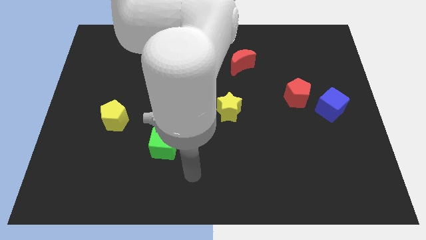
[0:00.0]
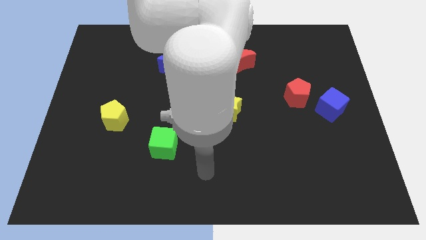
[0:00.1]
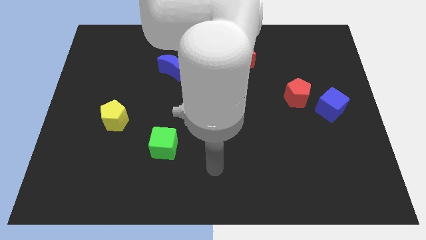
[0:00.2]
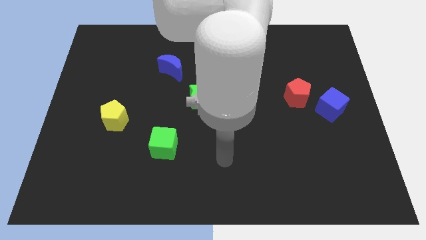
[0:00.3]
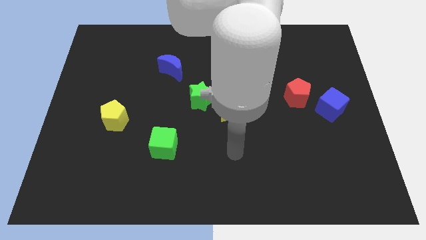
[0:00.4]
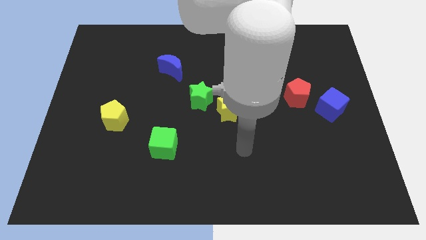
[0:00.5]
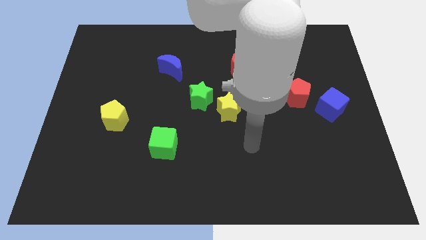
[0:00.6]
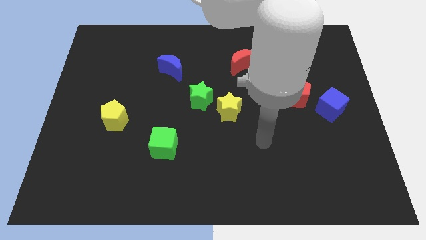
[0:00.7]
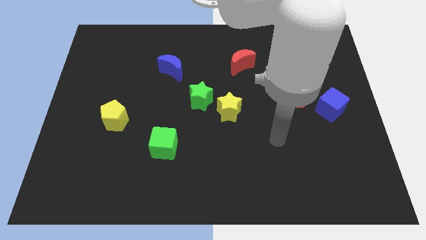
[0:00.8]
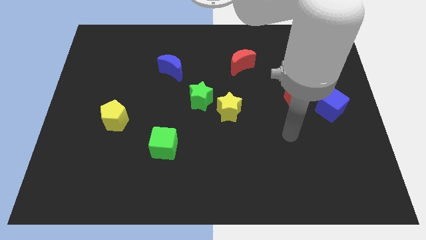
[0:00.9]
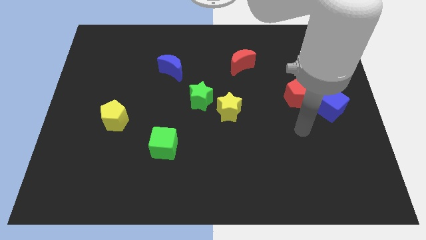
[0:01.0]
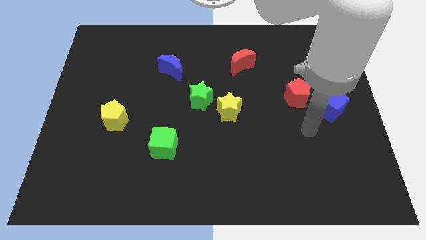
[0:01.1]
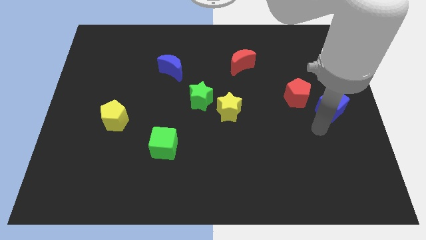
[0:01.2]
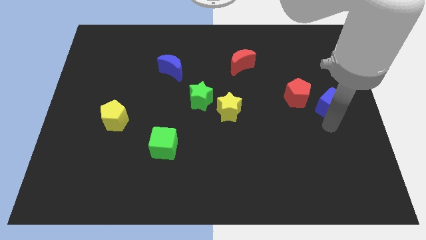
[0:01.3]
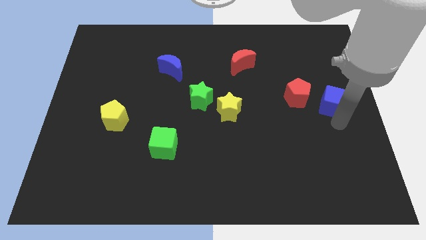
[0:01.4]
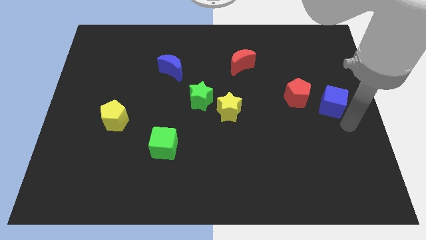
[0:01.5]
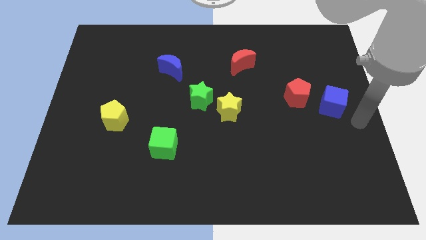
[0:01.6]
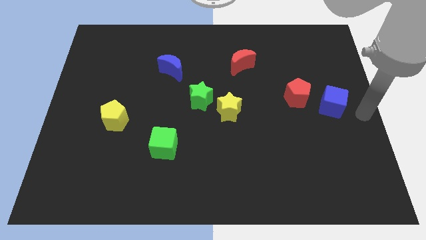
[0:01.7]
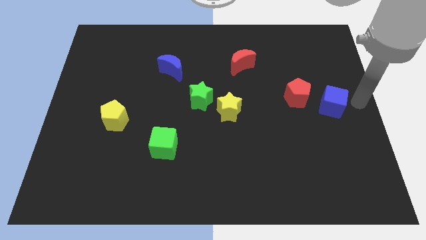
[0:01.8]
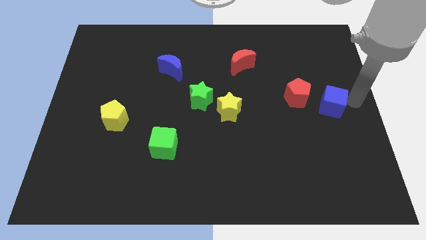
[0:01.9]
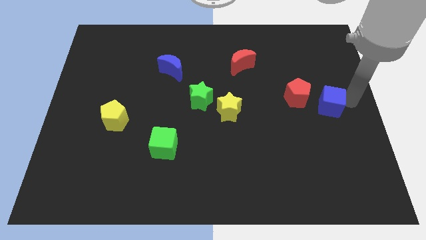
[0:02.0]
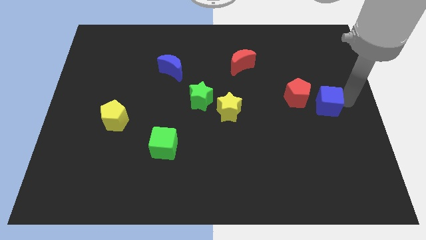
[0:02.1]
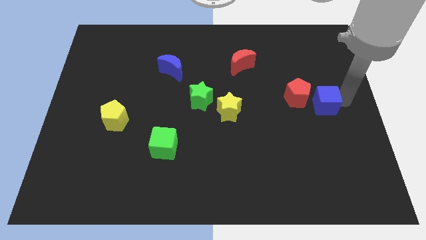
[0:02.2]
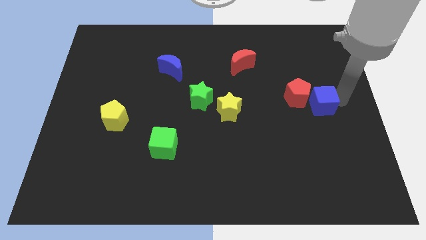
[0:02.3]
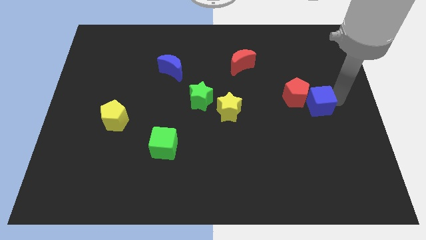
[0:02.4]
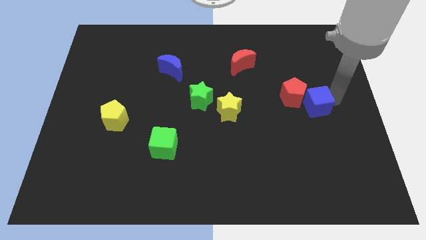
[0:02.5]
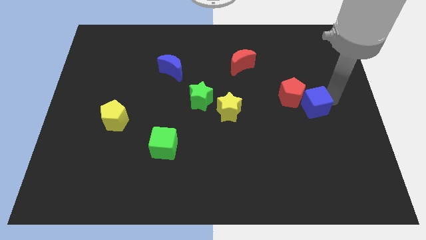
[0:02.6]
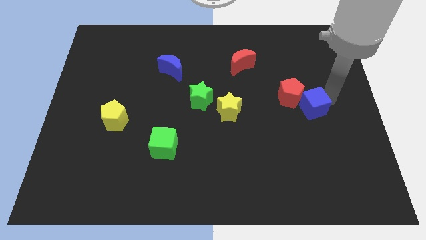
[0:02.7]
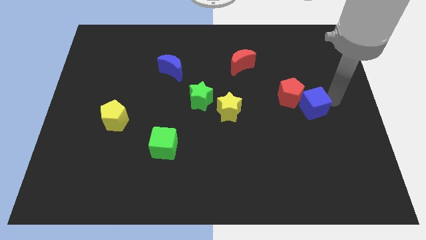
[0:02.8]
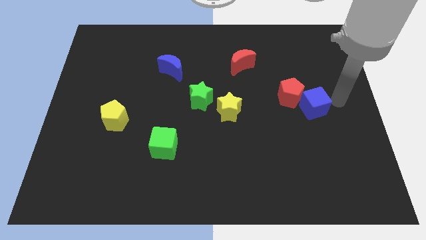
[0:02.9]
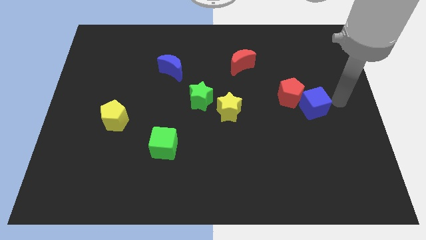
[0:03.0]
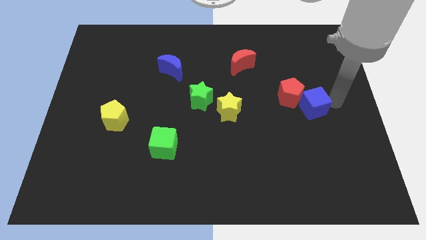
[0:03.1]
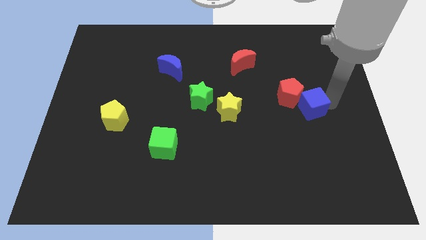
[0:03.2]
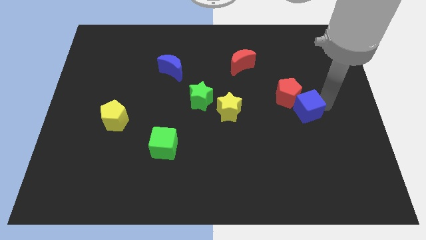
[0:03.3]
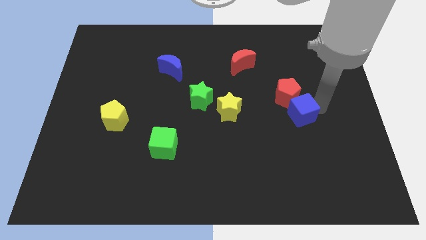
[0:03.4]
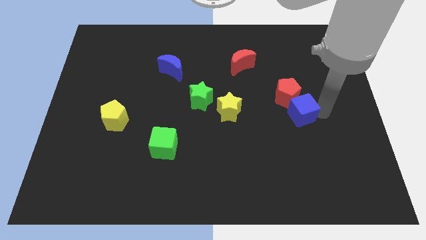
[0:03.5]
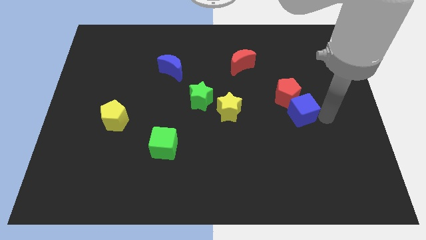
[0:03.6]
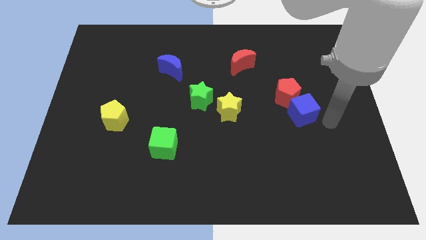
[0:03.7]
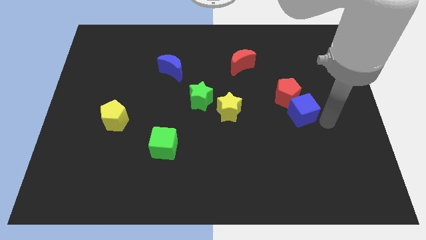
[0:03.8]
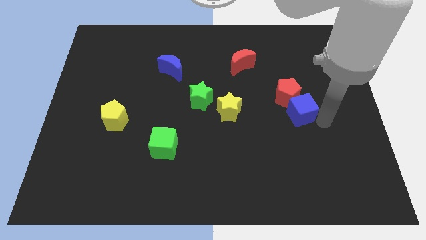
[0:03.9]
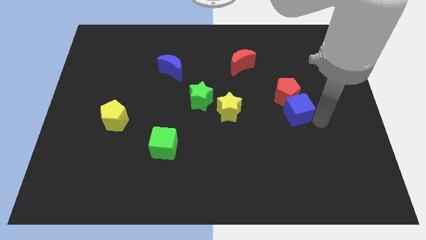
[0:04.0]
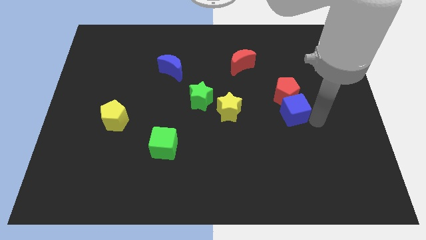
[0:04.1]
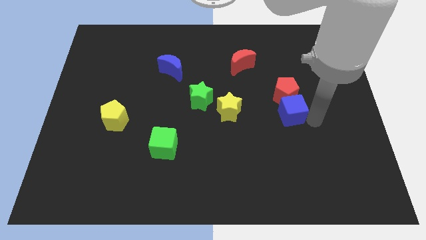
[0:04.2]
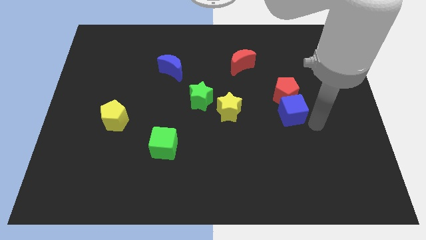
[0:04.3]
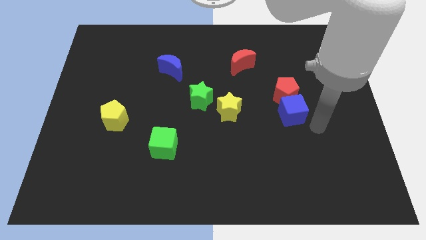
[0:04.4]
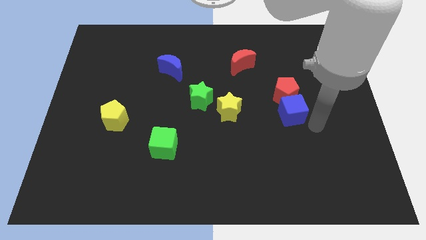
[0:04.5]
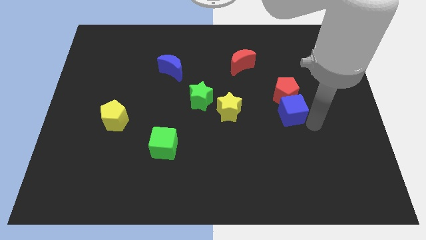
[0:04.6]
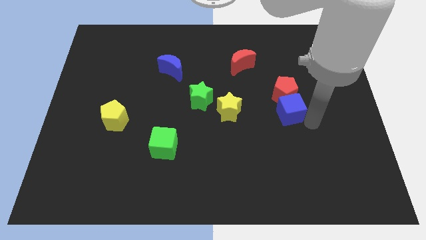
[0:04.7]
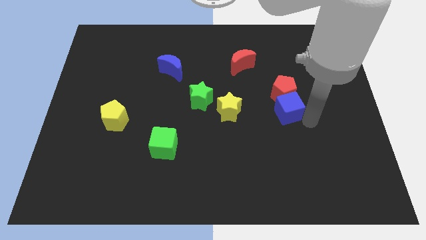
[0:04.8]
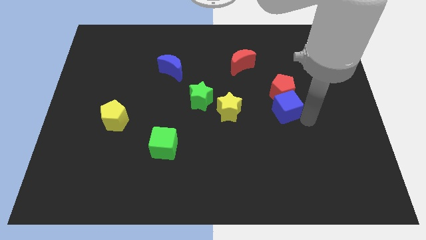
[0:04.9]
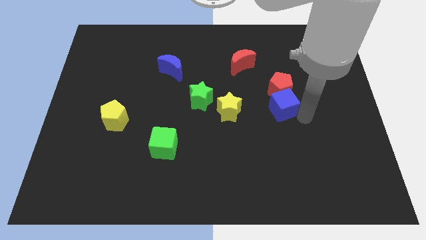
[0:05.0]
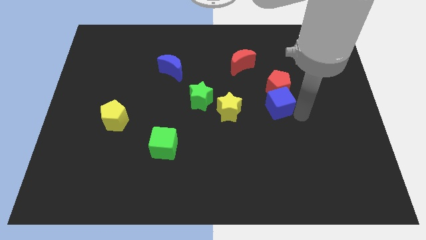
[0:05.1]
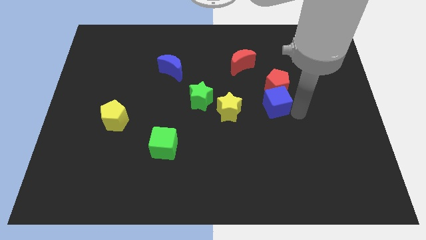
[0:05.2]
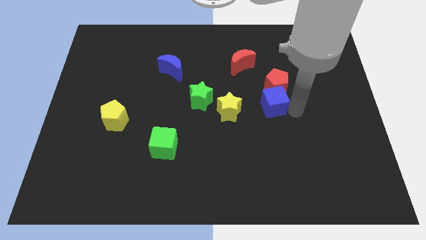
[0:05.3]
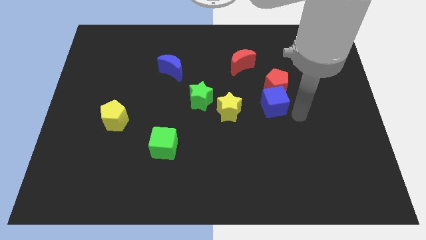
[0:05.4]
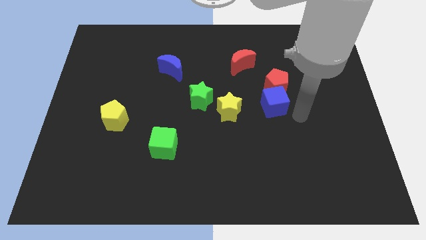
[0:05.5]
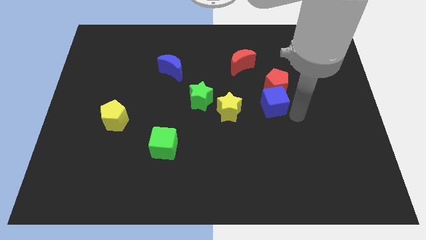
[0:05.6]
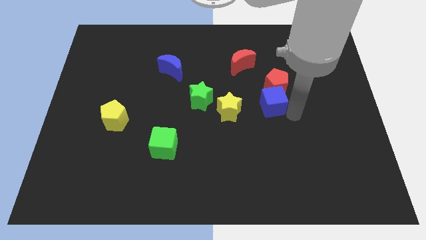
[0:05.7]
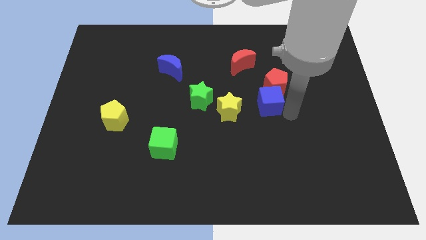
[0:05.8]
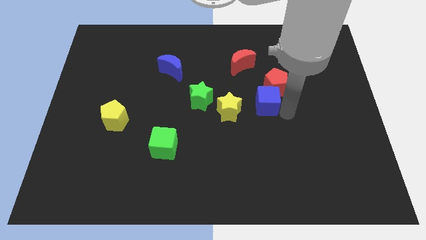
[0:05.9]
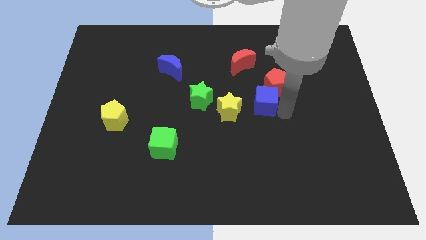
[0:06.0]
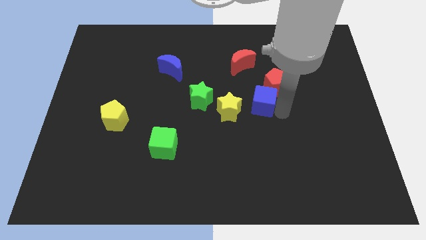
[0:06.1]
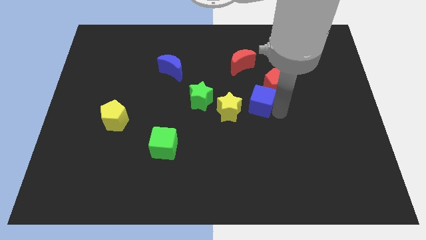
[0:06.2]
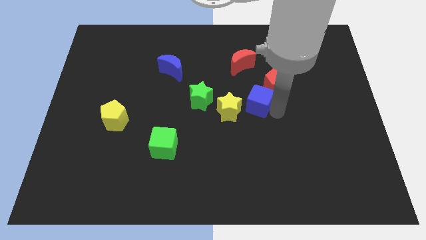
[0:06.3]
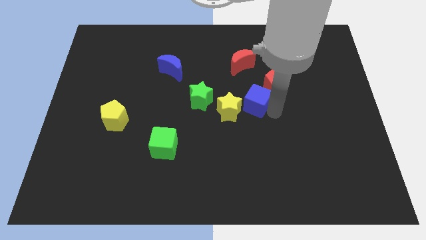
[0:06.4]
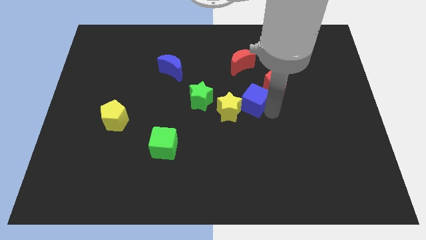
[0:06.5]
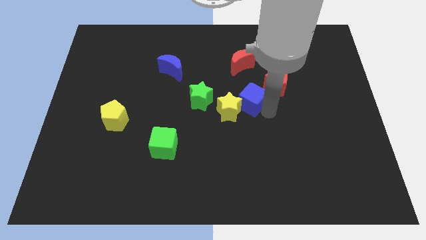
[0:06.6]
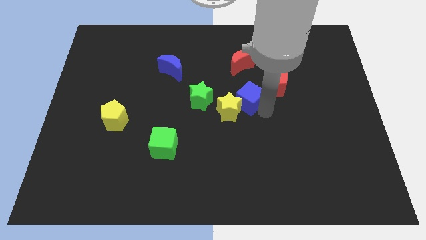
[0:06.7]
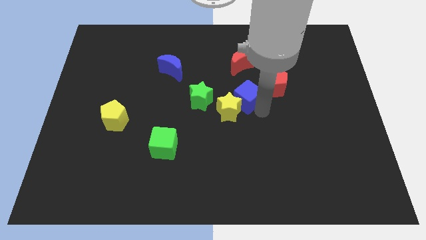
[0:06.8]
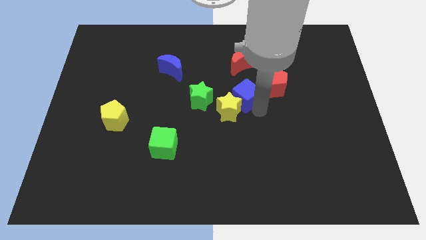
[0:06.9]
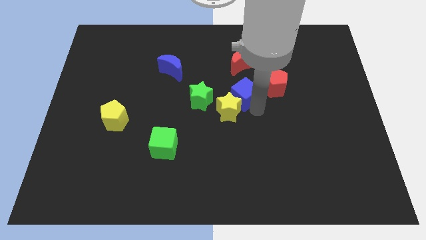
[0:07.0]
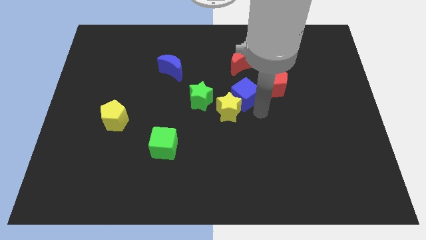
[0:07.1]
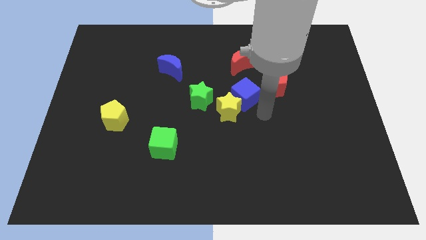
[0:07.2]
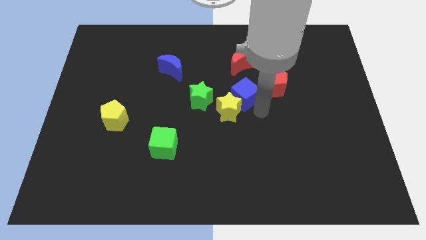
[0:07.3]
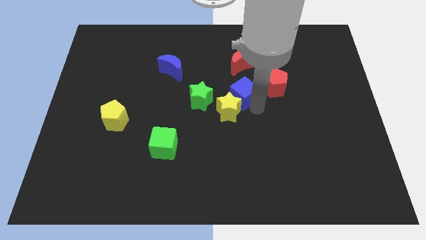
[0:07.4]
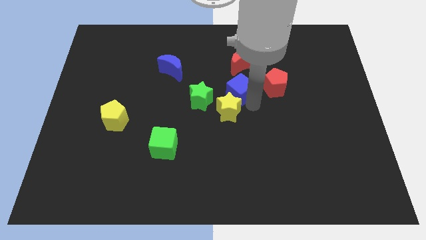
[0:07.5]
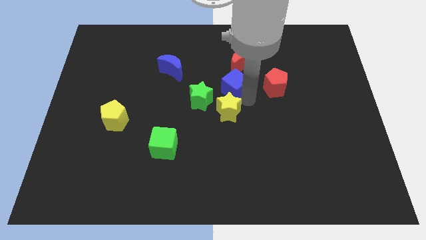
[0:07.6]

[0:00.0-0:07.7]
put the blue cube to the top right of the green star
